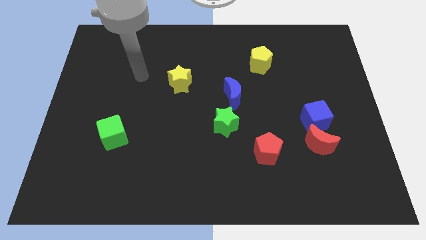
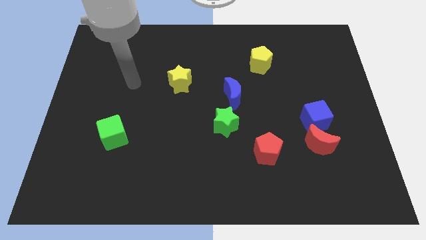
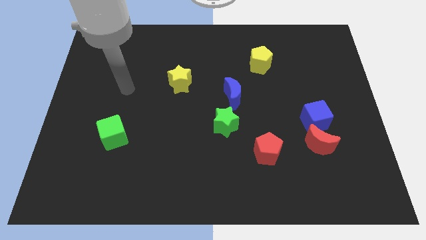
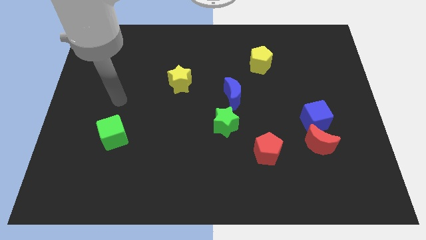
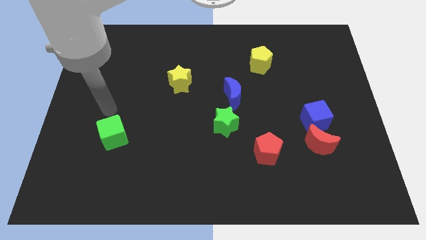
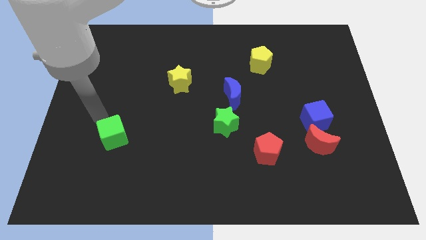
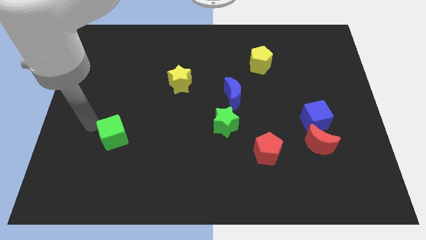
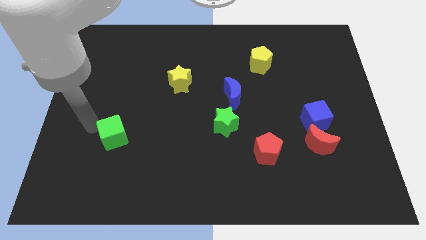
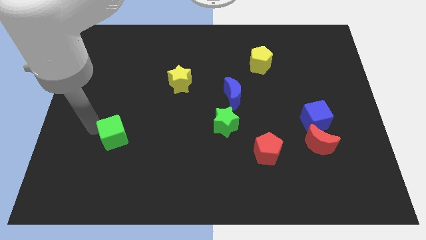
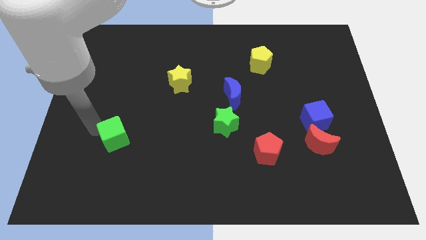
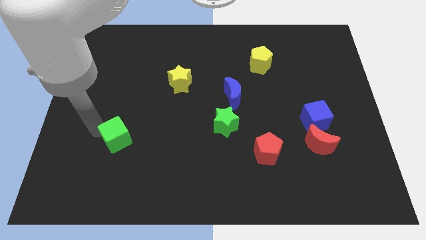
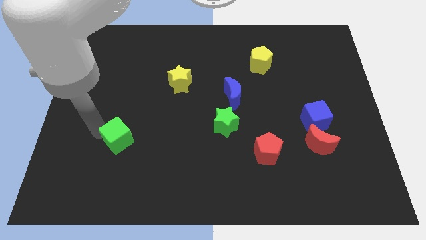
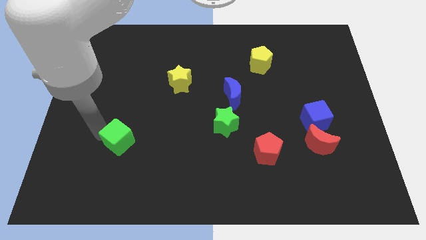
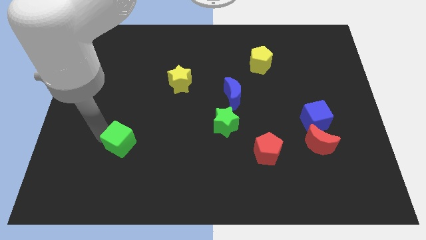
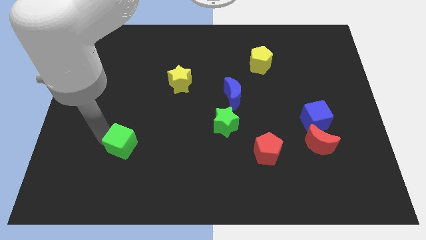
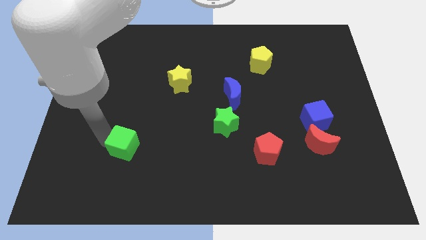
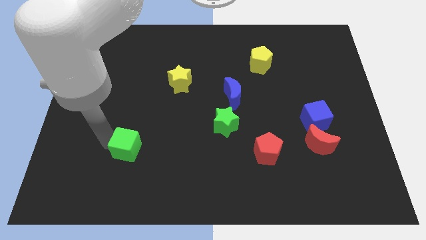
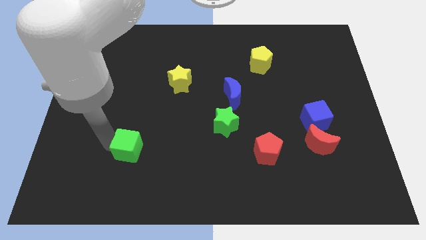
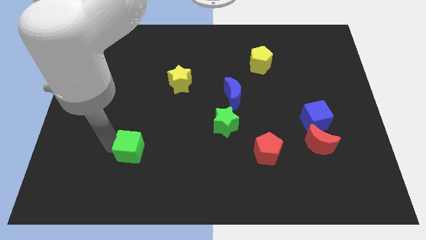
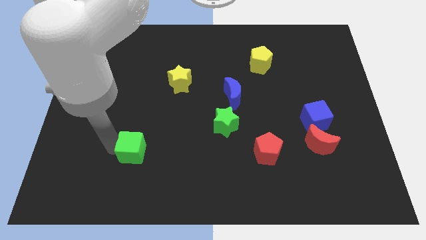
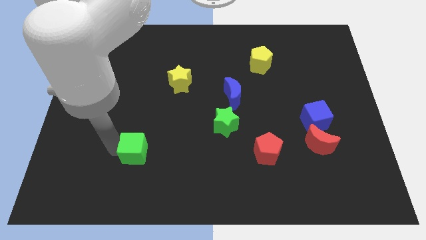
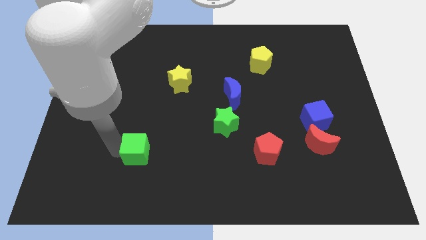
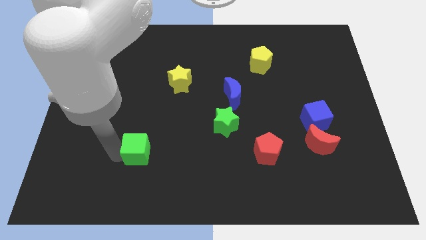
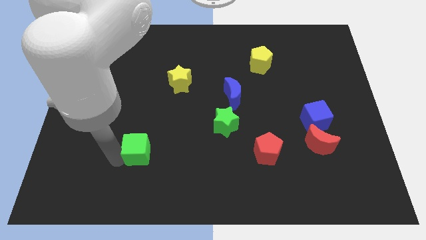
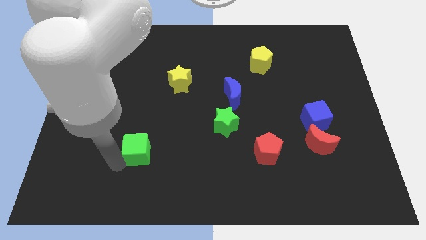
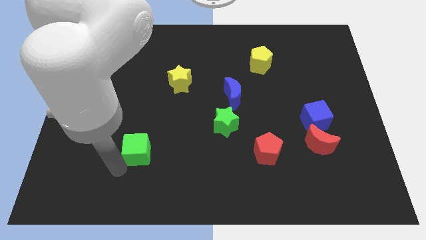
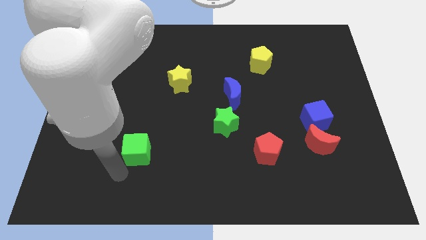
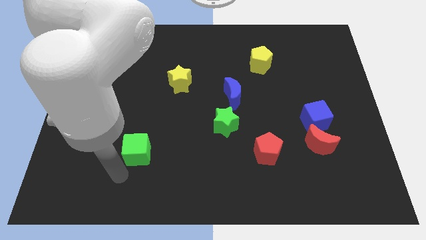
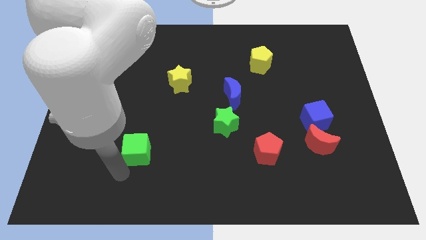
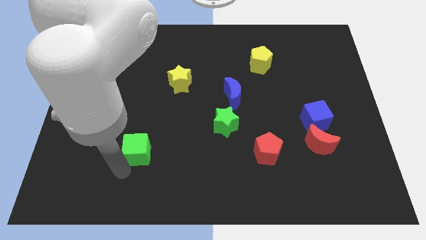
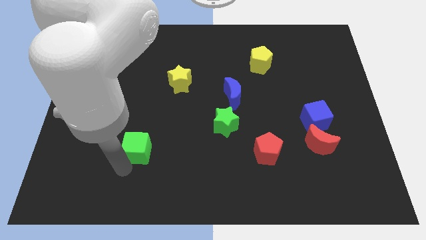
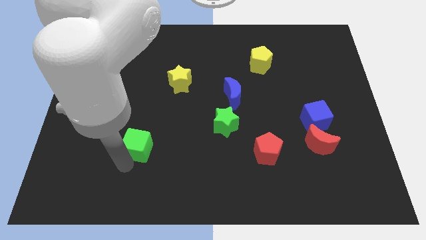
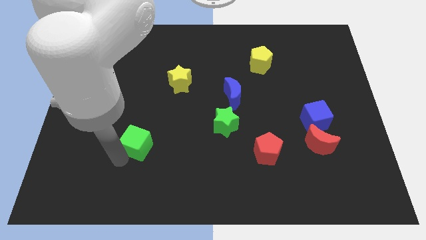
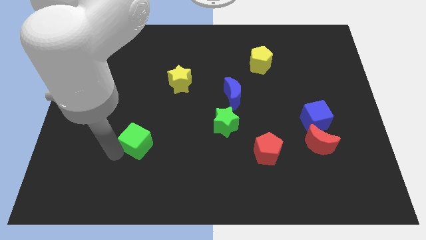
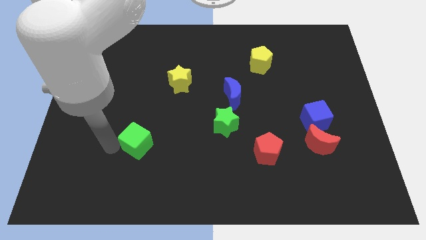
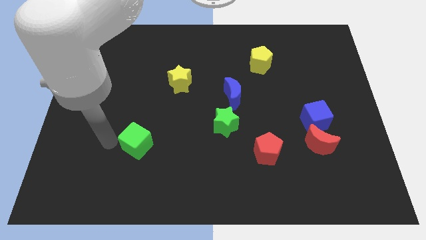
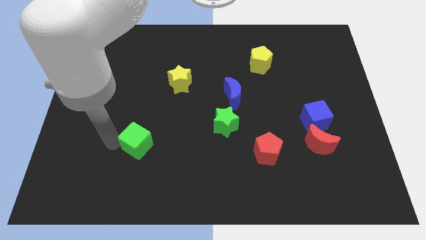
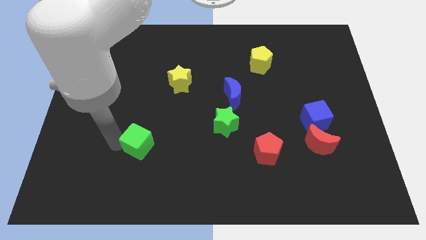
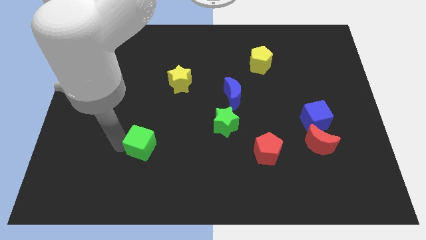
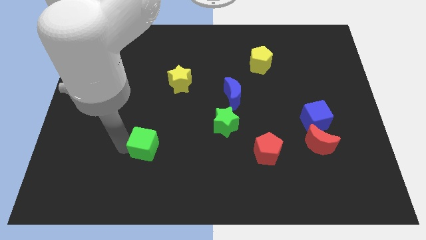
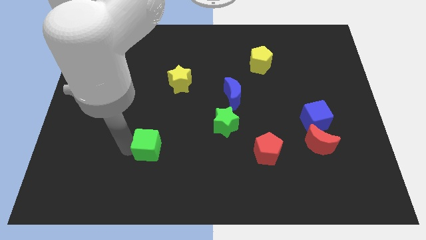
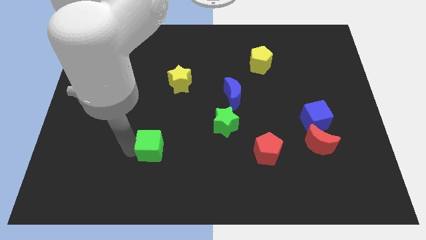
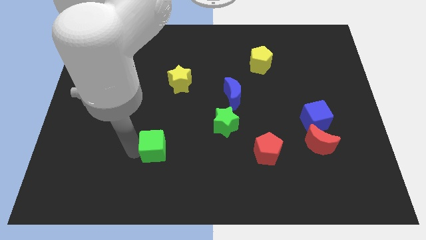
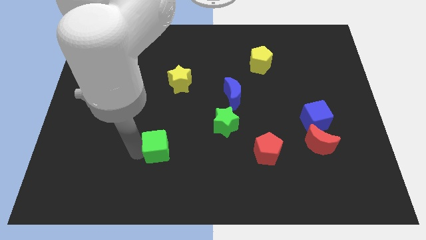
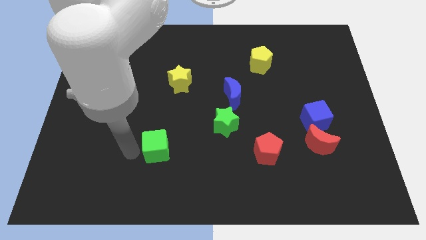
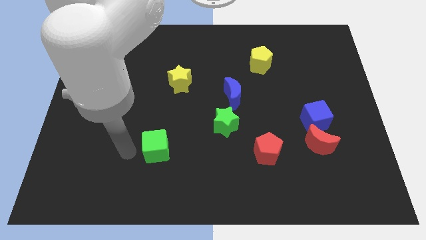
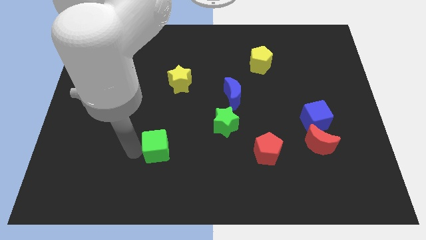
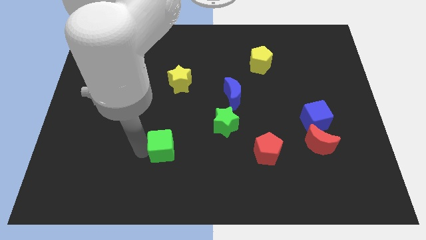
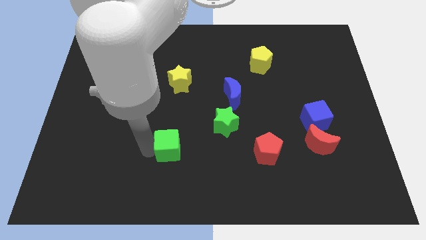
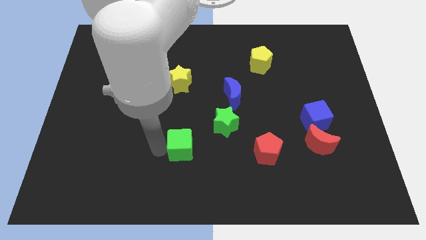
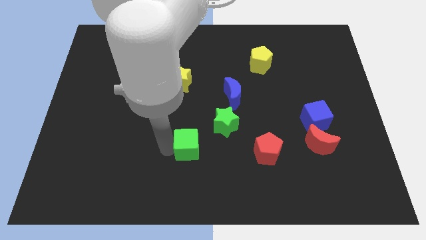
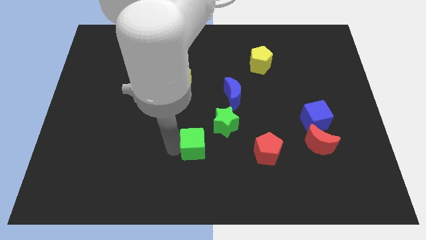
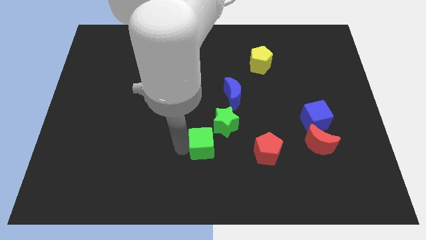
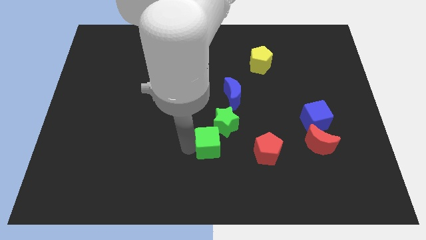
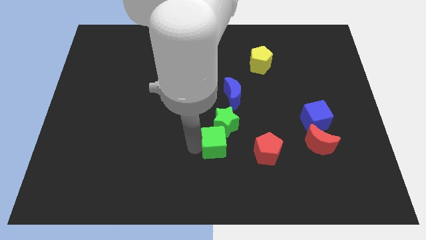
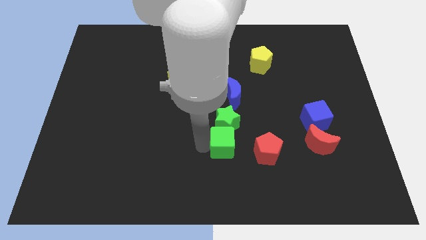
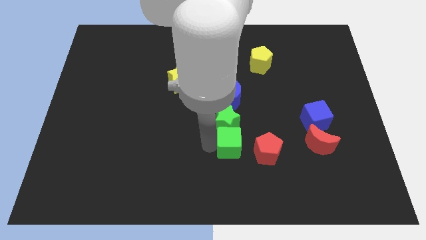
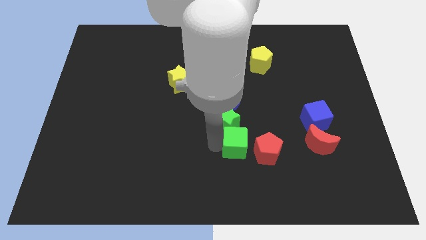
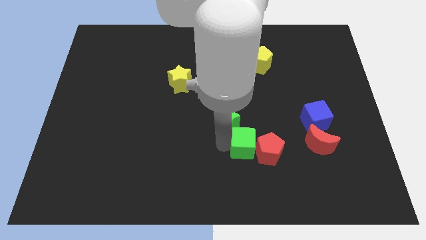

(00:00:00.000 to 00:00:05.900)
put the green cube towards the red pentagon

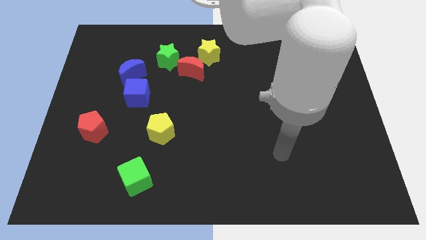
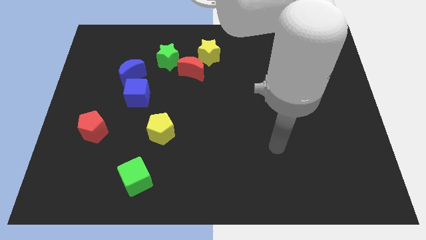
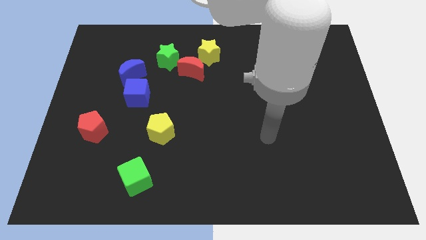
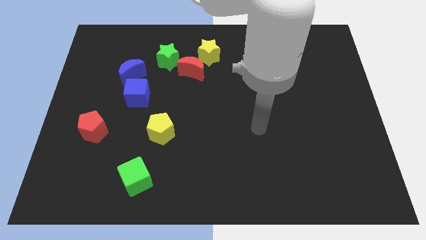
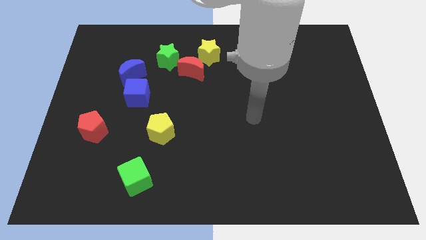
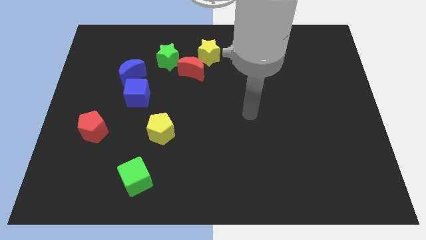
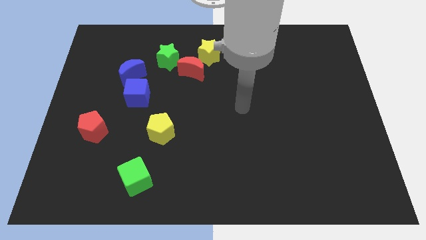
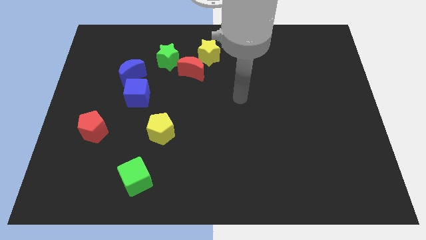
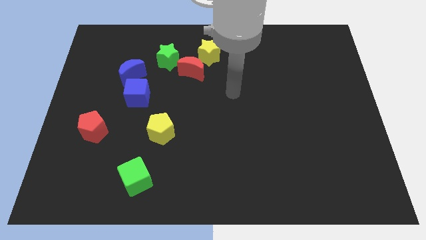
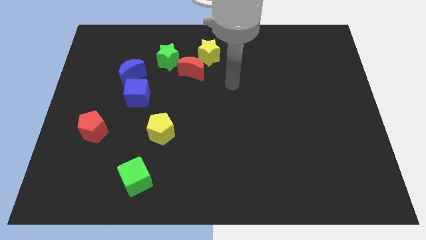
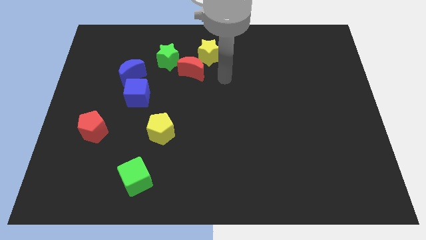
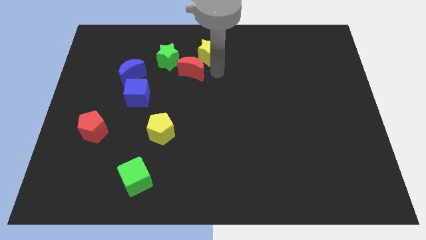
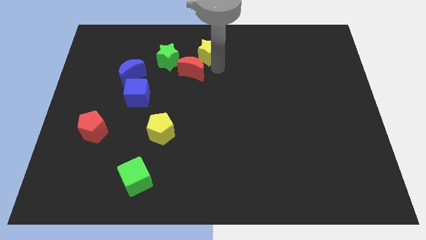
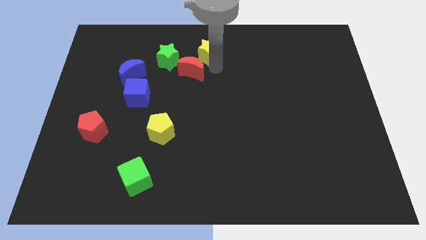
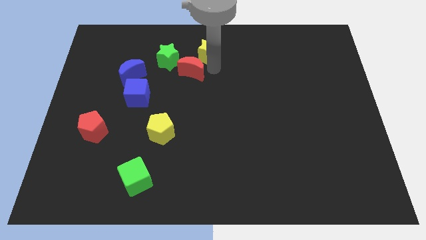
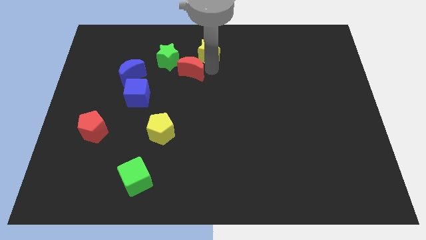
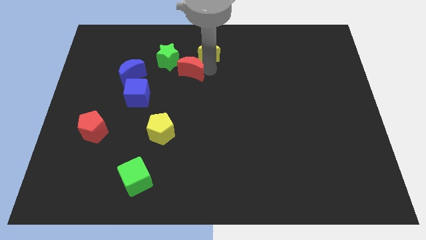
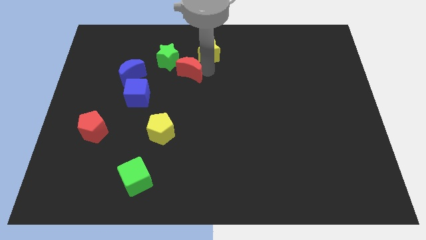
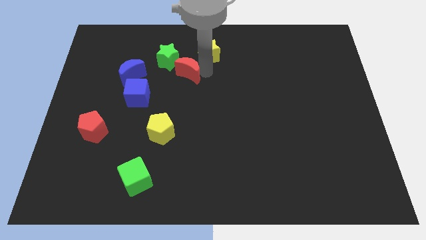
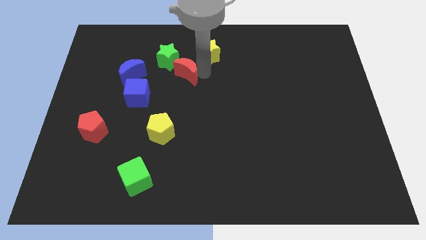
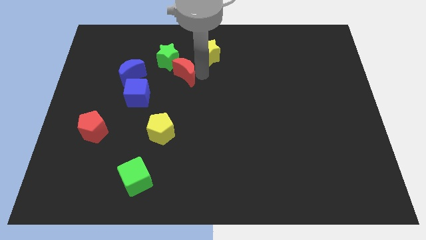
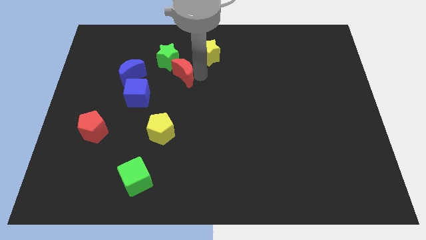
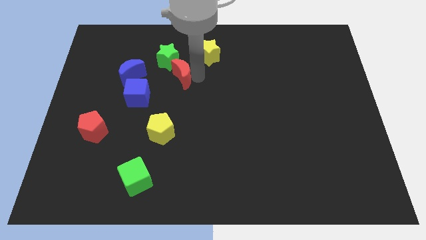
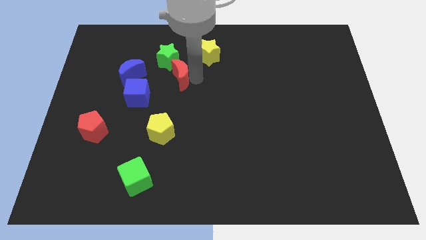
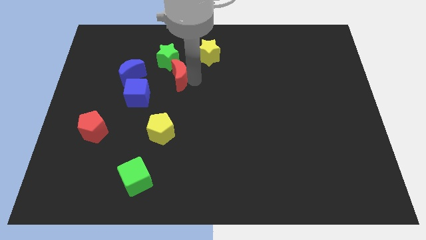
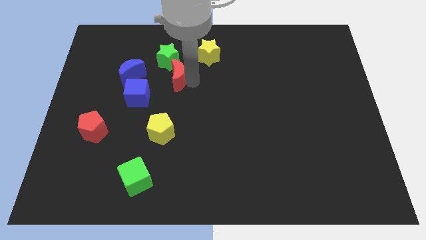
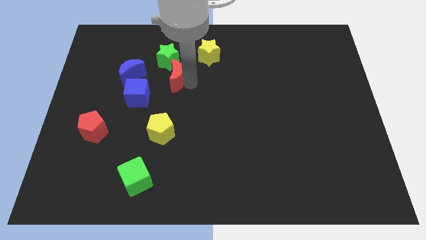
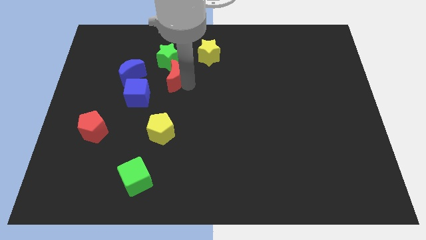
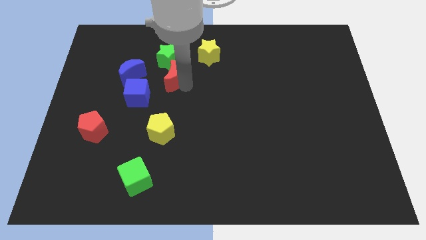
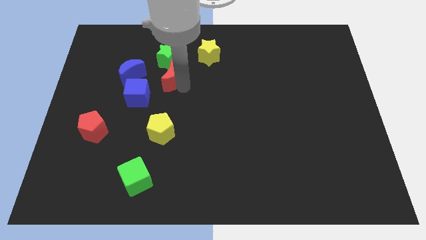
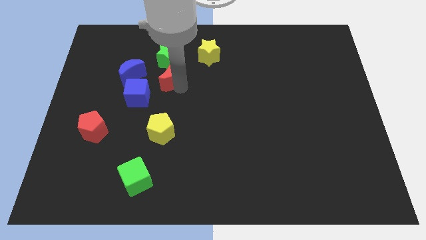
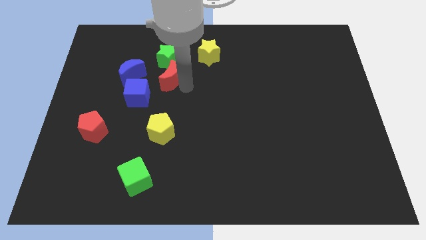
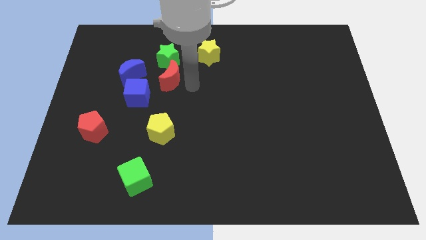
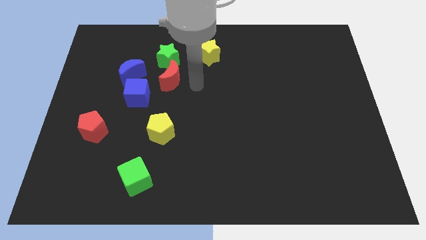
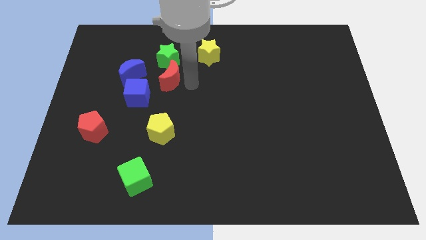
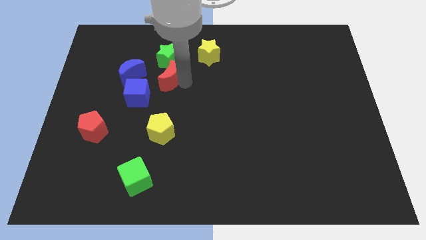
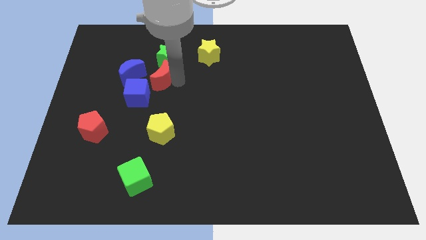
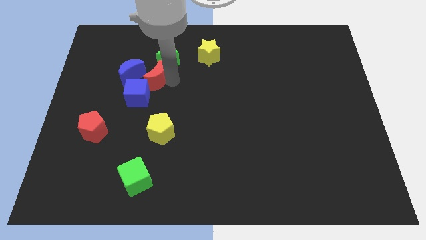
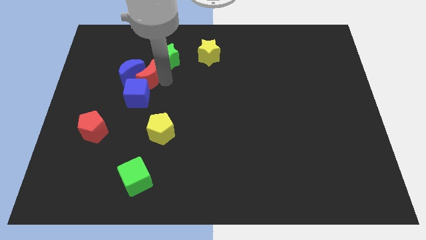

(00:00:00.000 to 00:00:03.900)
slide the red moon to the blue moon
